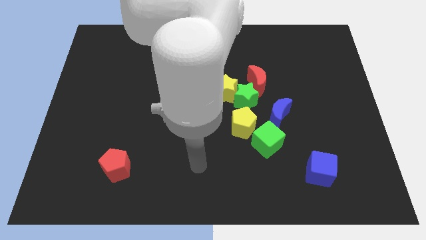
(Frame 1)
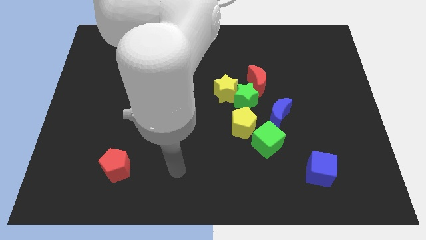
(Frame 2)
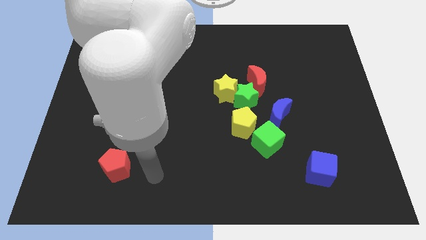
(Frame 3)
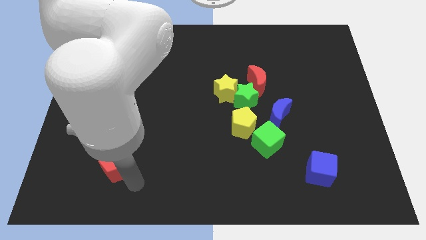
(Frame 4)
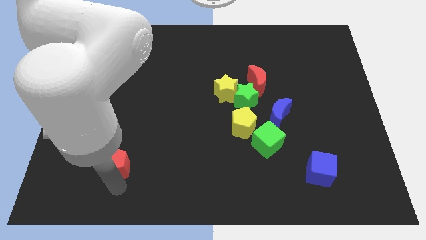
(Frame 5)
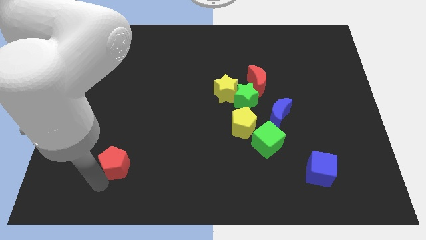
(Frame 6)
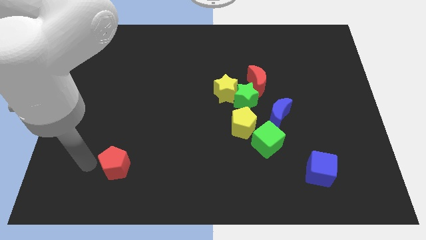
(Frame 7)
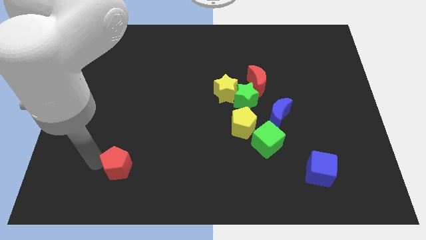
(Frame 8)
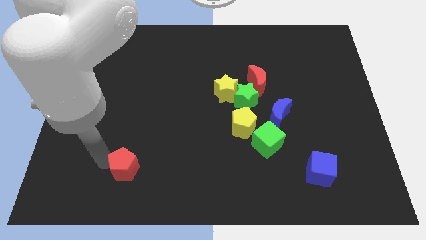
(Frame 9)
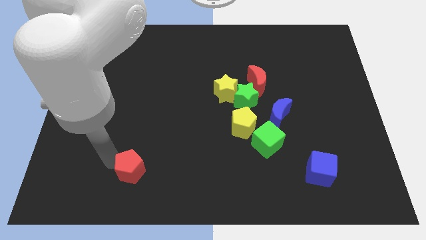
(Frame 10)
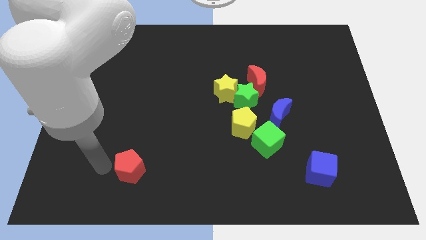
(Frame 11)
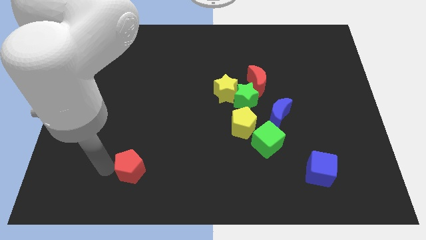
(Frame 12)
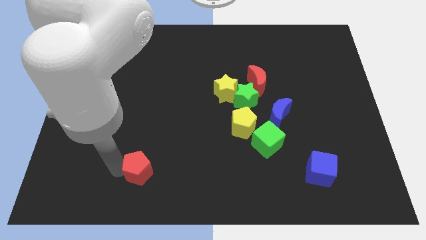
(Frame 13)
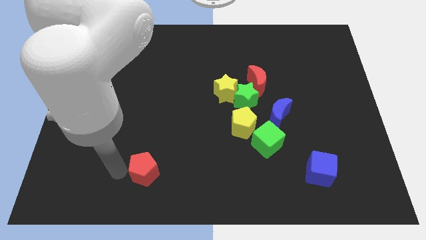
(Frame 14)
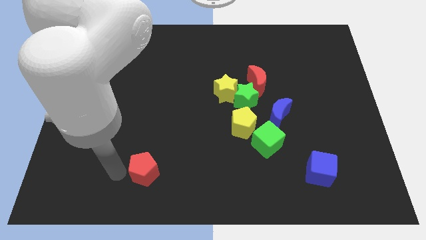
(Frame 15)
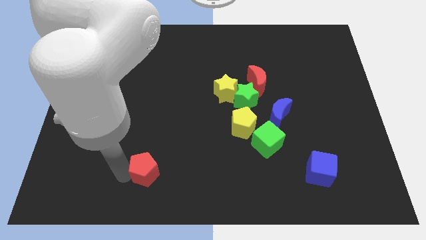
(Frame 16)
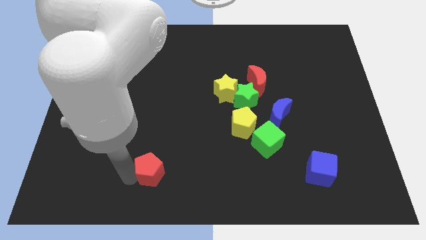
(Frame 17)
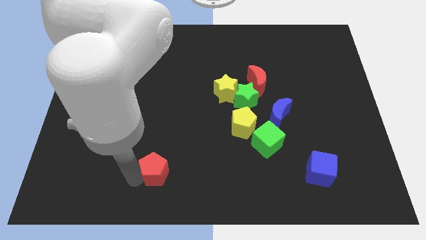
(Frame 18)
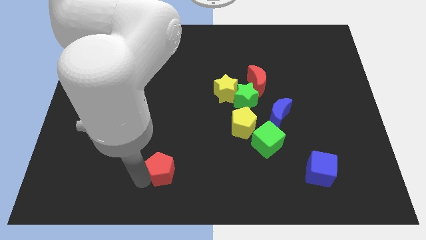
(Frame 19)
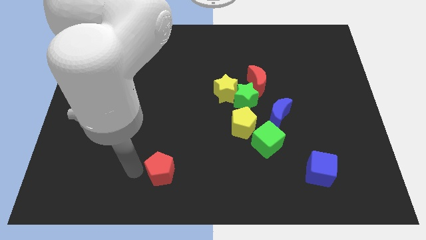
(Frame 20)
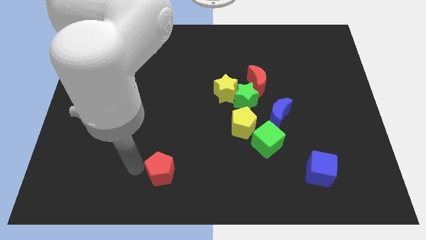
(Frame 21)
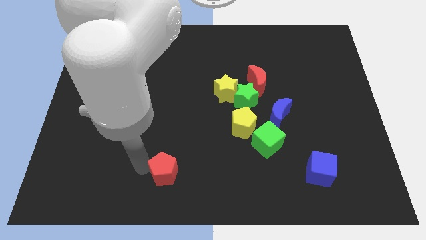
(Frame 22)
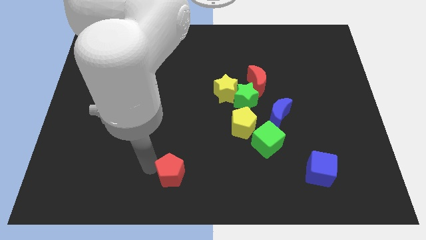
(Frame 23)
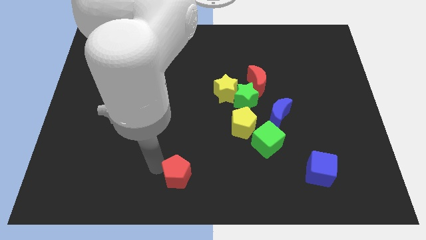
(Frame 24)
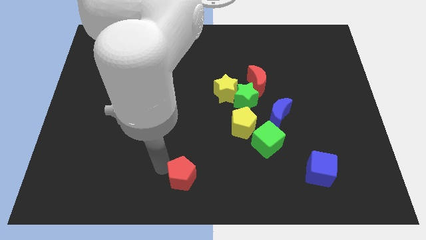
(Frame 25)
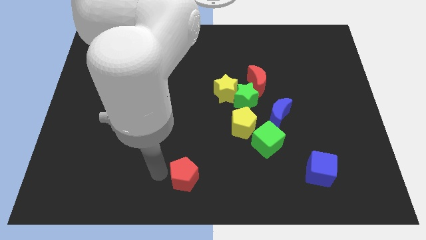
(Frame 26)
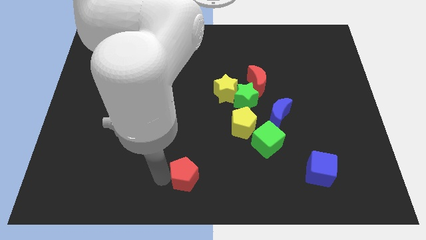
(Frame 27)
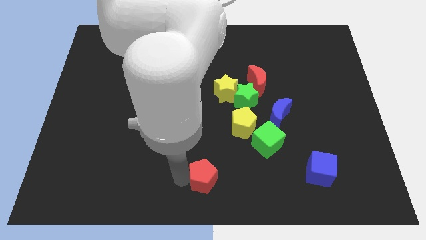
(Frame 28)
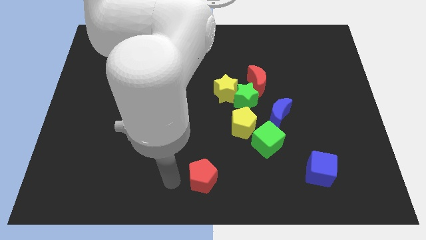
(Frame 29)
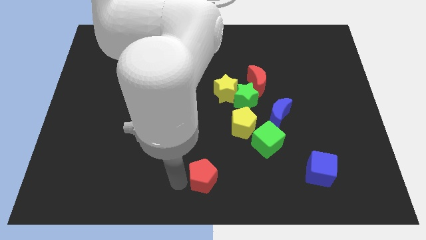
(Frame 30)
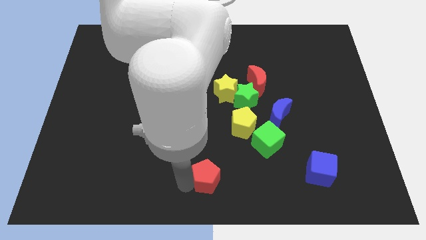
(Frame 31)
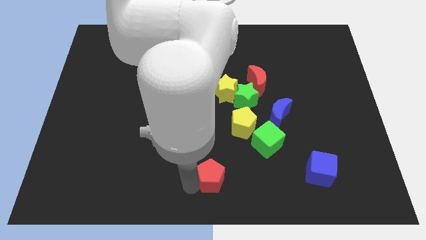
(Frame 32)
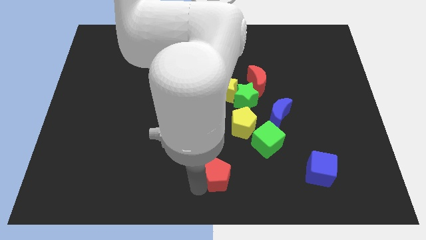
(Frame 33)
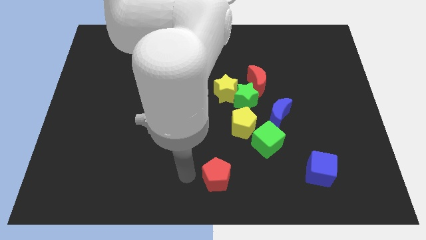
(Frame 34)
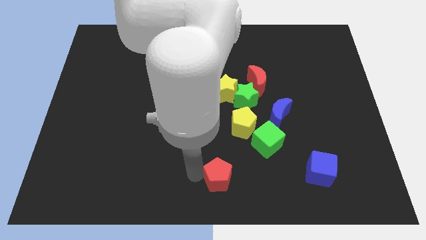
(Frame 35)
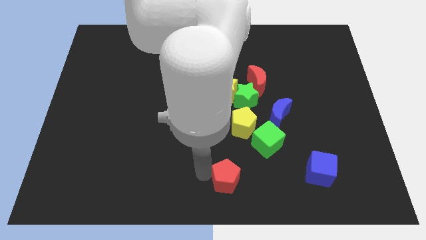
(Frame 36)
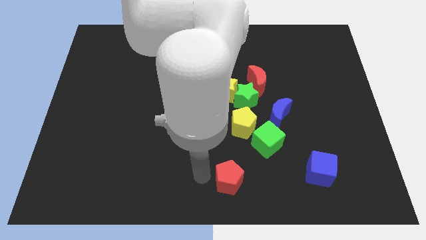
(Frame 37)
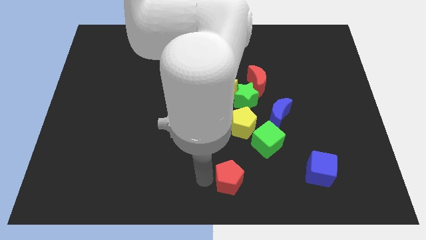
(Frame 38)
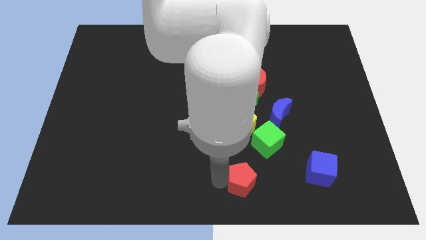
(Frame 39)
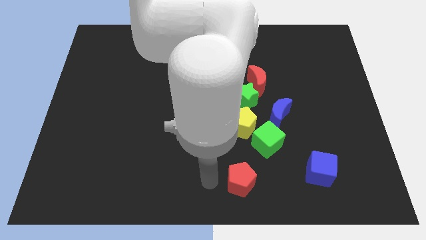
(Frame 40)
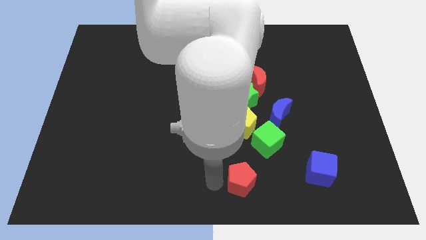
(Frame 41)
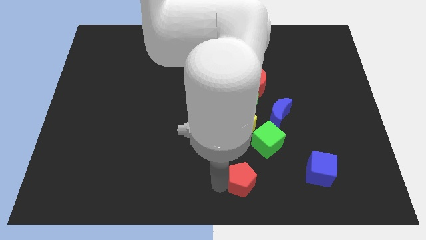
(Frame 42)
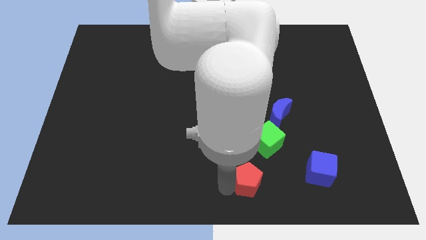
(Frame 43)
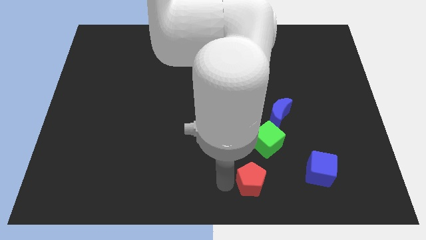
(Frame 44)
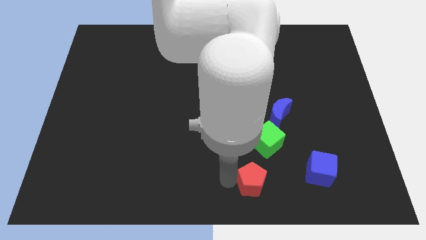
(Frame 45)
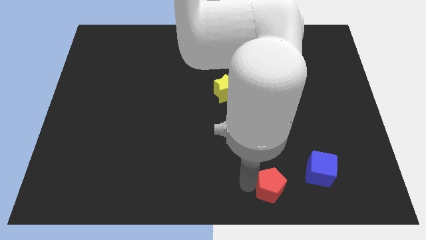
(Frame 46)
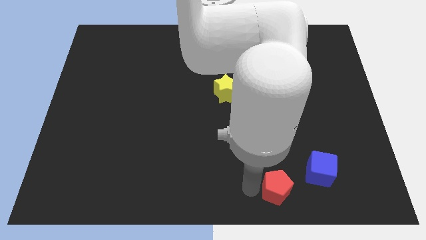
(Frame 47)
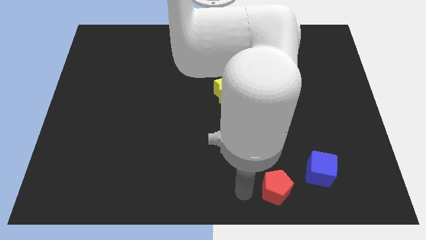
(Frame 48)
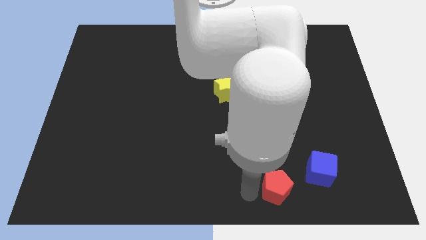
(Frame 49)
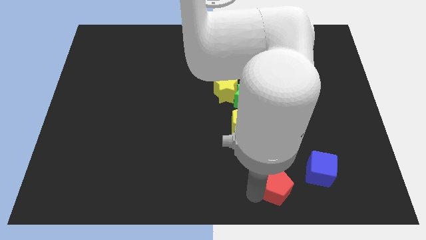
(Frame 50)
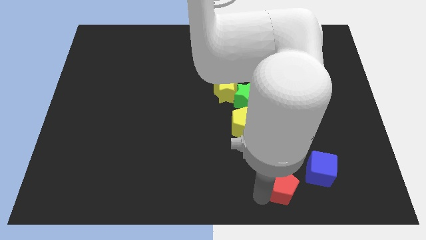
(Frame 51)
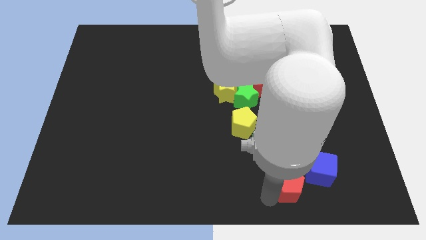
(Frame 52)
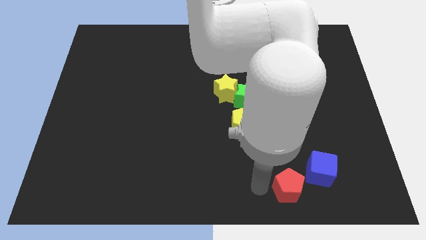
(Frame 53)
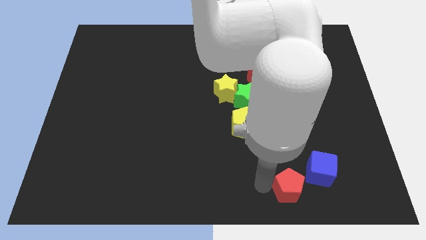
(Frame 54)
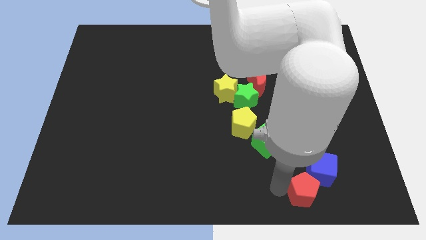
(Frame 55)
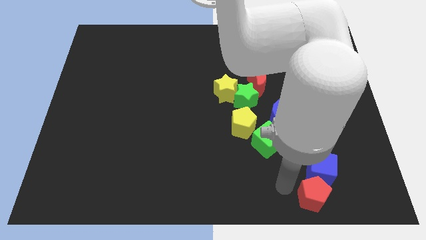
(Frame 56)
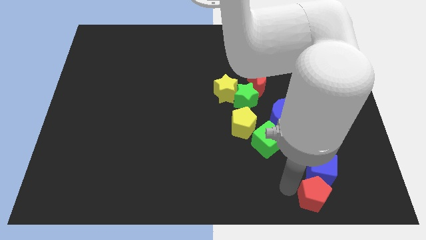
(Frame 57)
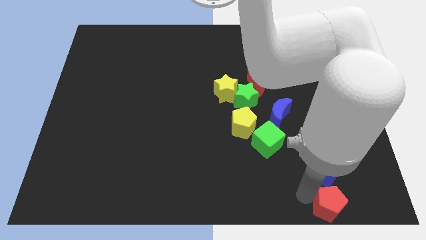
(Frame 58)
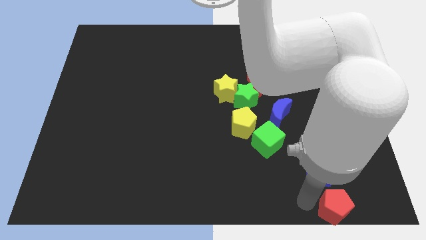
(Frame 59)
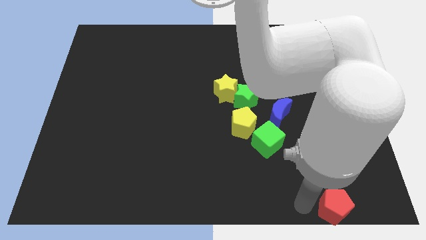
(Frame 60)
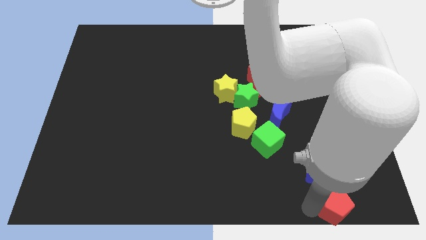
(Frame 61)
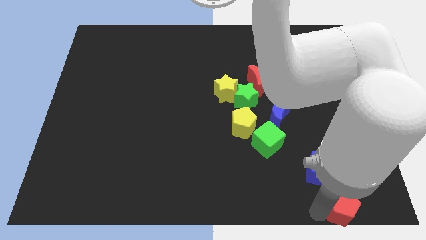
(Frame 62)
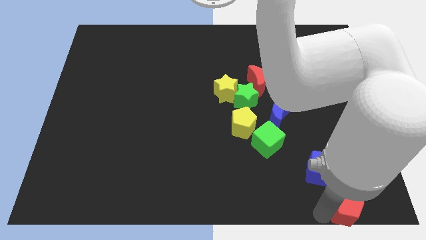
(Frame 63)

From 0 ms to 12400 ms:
move the red pentagon to the bottom right corner
